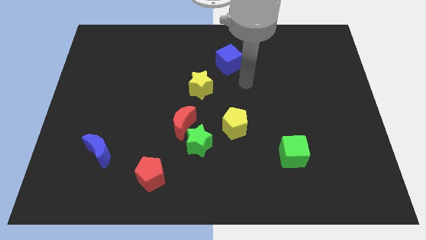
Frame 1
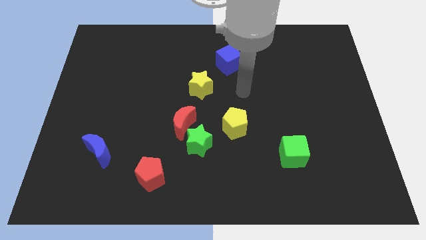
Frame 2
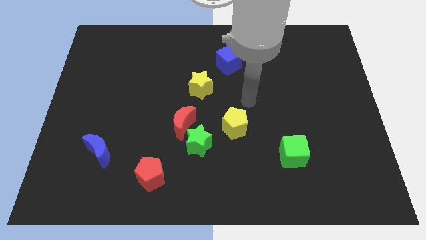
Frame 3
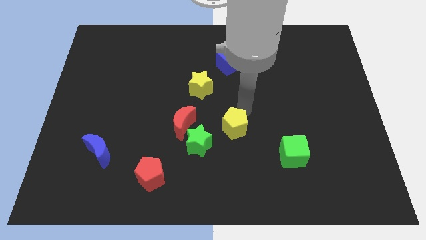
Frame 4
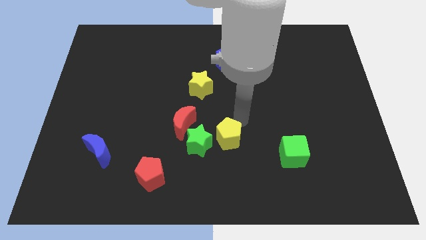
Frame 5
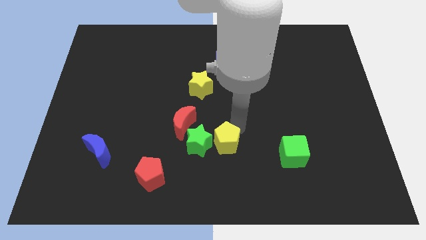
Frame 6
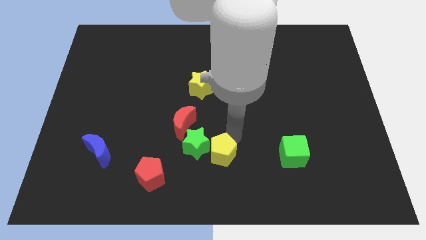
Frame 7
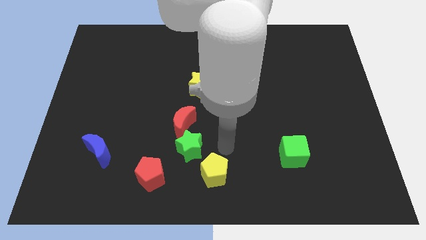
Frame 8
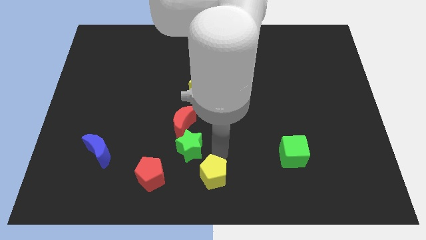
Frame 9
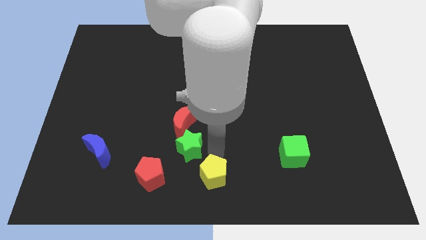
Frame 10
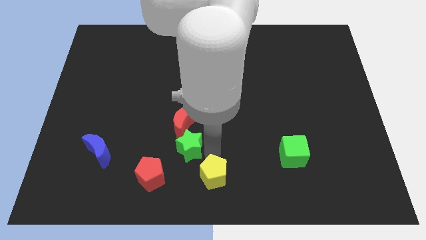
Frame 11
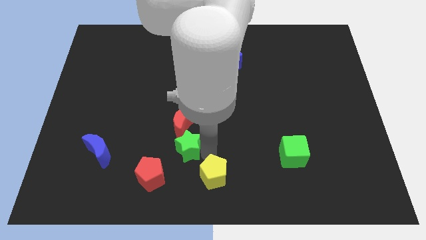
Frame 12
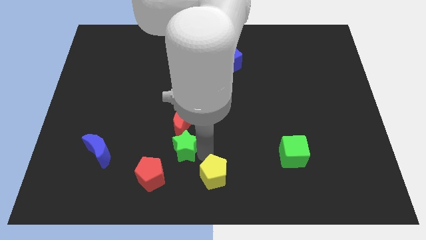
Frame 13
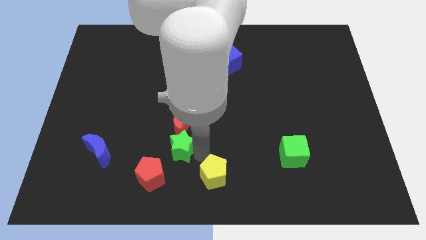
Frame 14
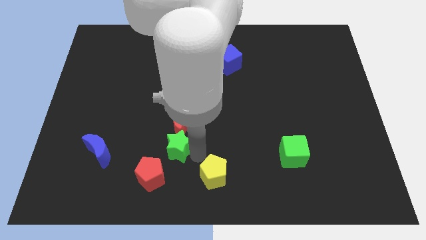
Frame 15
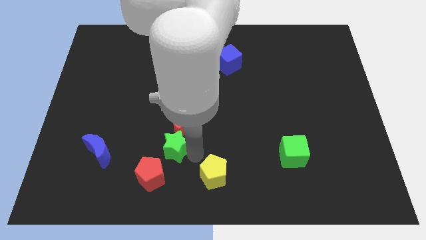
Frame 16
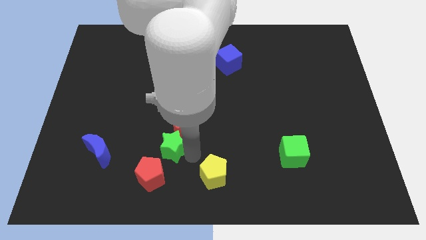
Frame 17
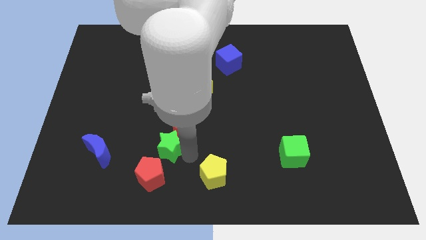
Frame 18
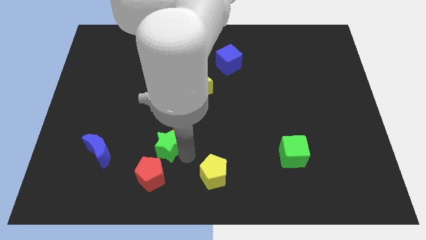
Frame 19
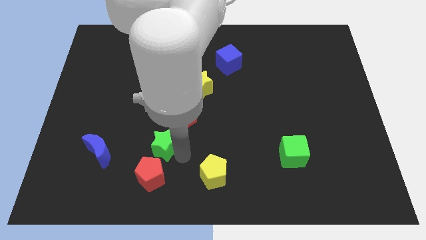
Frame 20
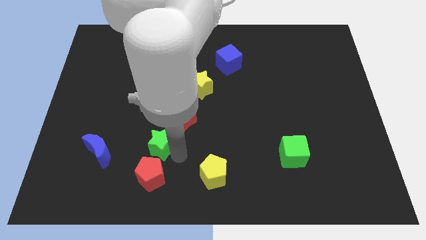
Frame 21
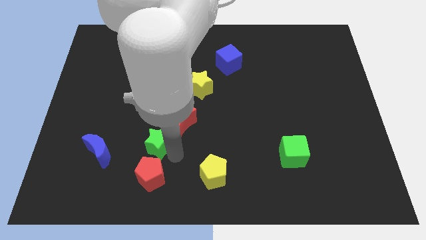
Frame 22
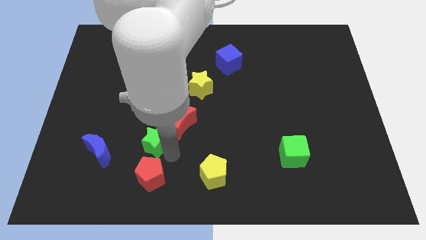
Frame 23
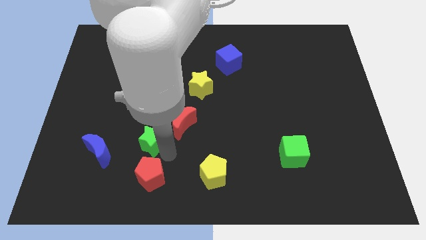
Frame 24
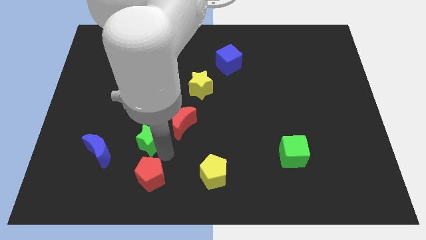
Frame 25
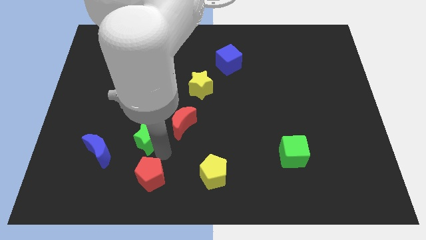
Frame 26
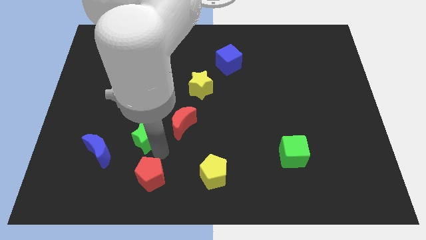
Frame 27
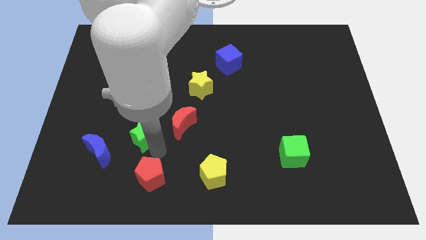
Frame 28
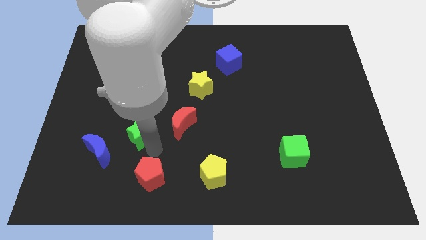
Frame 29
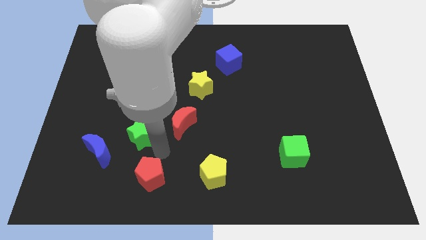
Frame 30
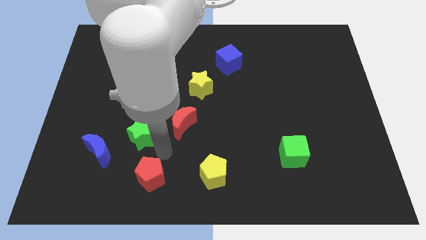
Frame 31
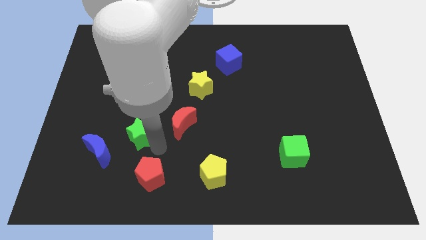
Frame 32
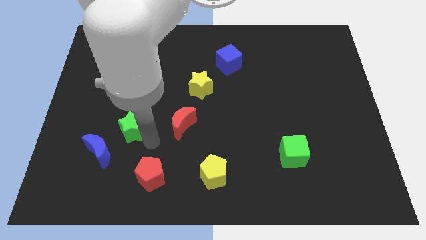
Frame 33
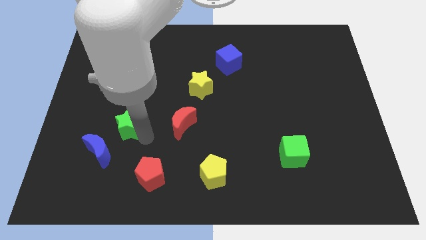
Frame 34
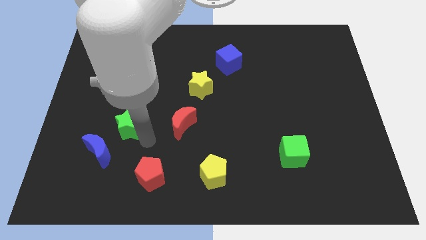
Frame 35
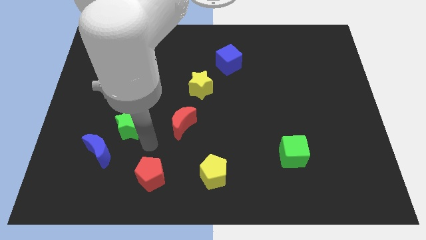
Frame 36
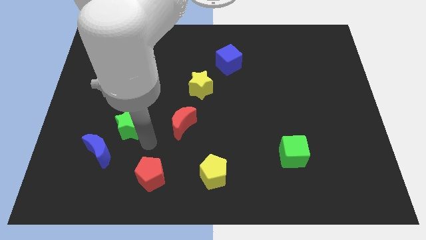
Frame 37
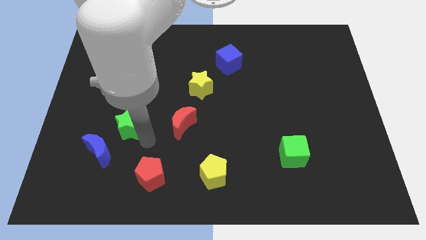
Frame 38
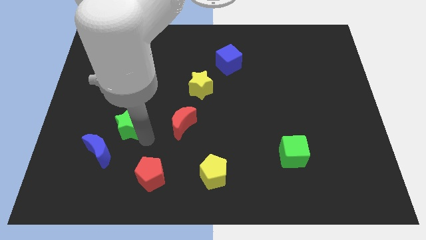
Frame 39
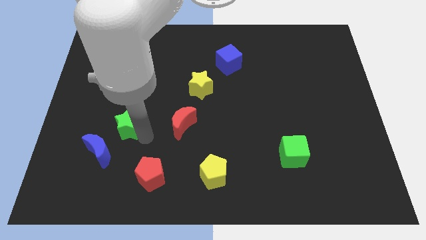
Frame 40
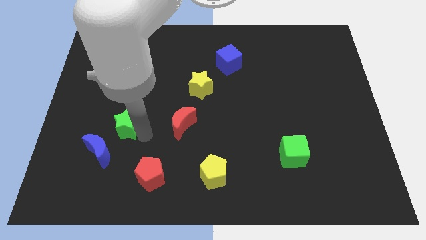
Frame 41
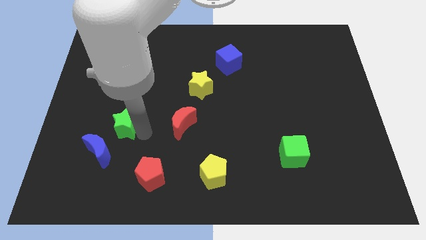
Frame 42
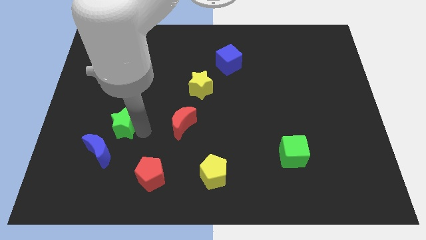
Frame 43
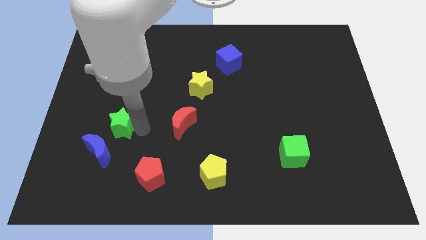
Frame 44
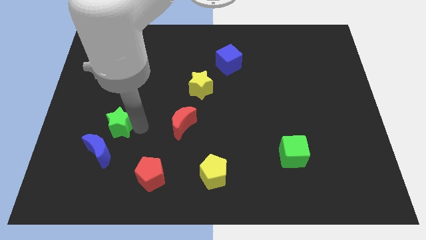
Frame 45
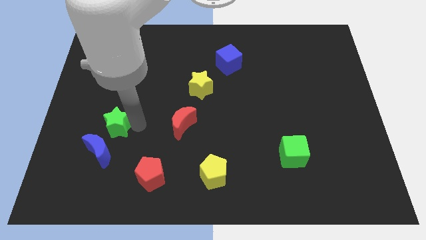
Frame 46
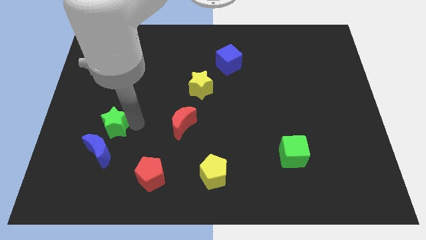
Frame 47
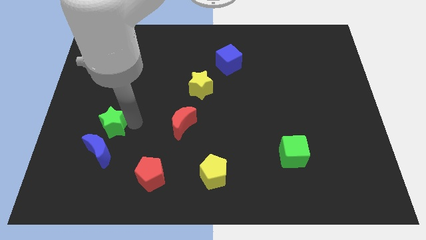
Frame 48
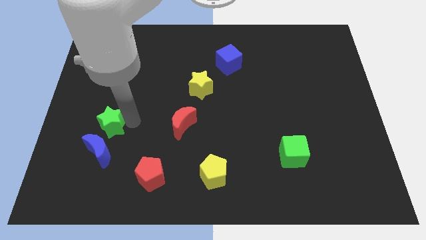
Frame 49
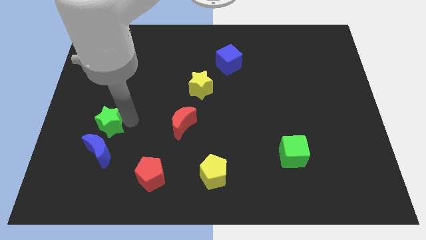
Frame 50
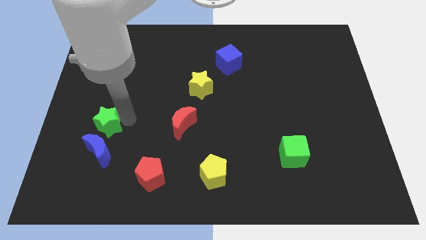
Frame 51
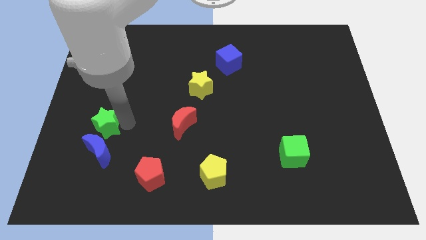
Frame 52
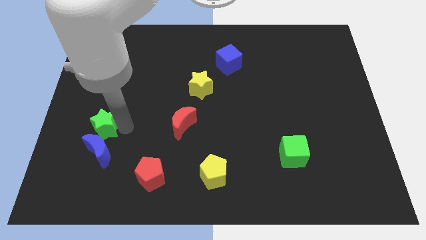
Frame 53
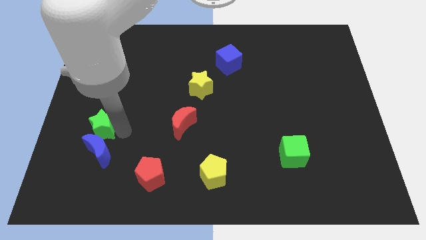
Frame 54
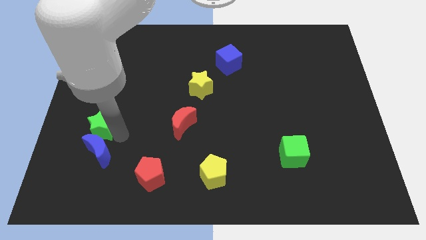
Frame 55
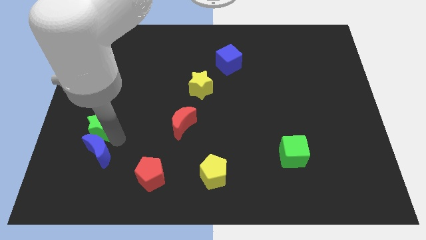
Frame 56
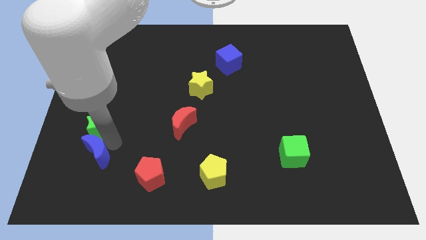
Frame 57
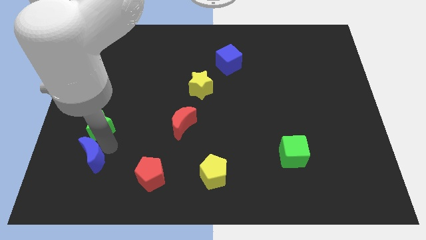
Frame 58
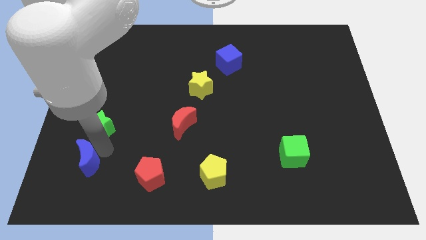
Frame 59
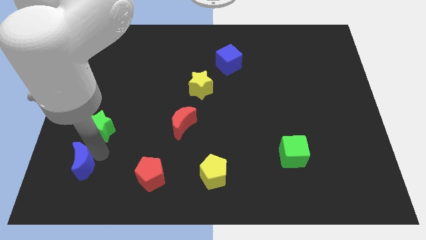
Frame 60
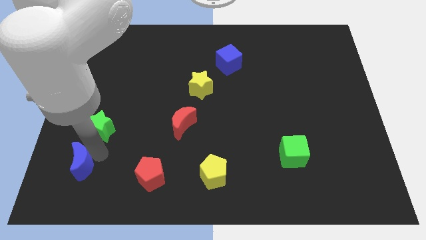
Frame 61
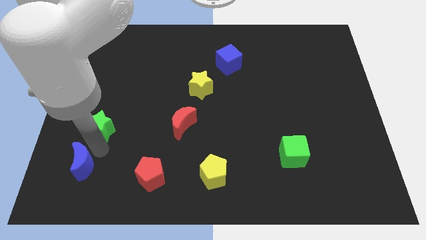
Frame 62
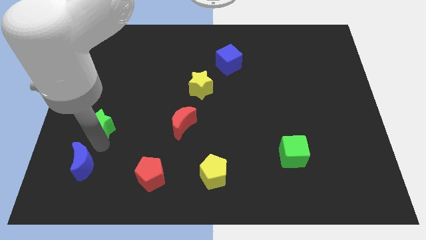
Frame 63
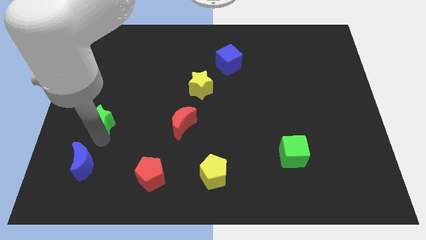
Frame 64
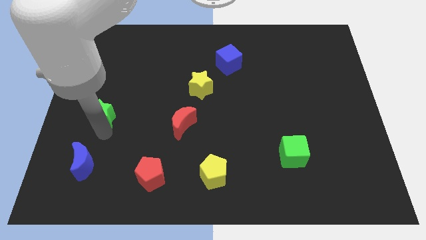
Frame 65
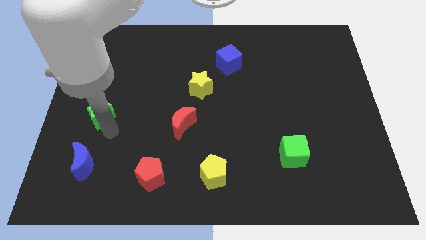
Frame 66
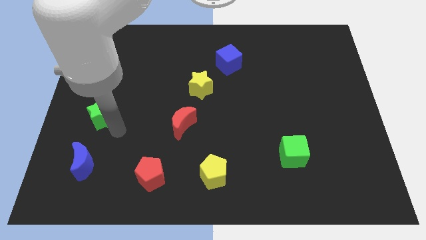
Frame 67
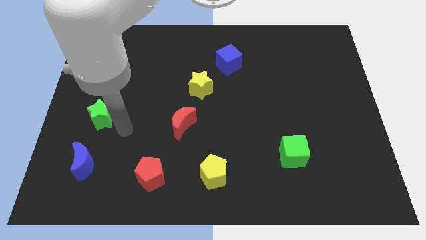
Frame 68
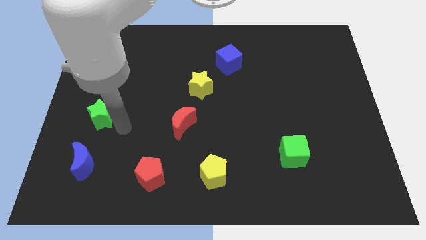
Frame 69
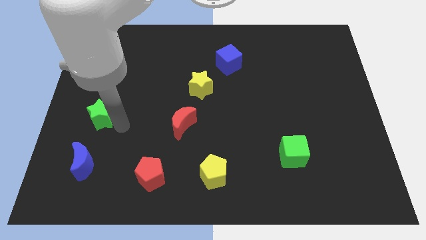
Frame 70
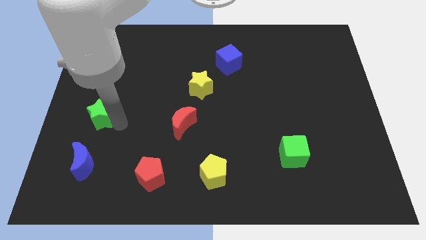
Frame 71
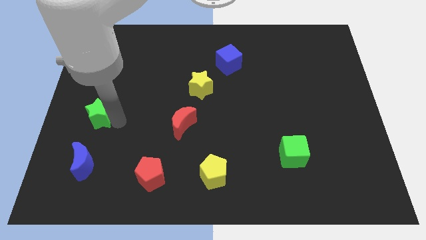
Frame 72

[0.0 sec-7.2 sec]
put the green star to the left side of the board
